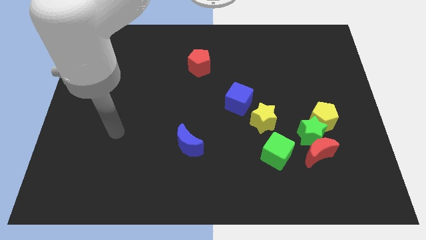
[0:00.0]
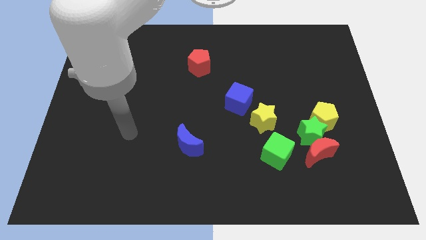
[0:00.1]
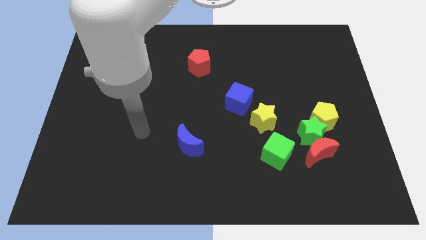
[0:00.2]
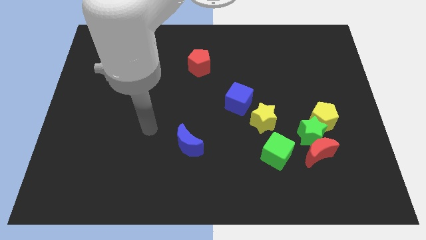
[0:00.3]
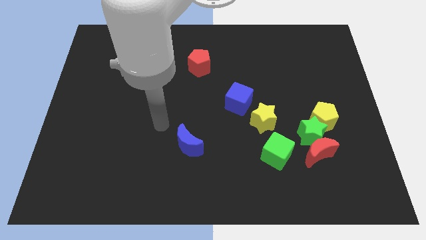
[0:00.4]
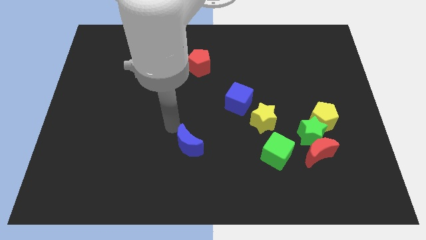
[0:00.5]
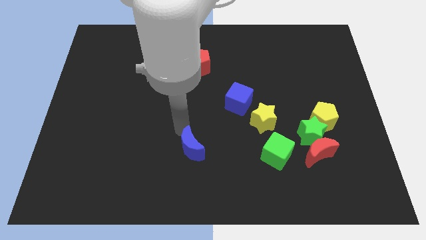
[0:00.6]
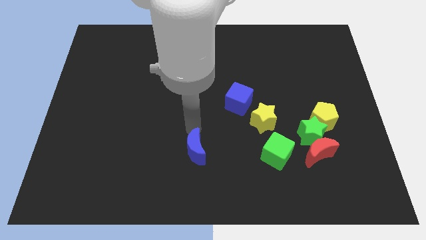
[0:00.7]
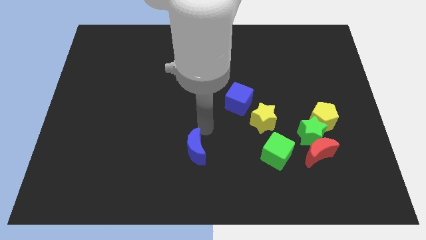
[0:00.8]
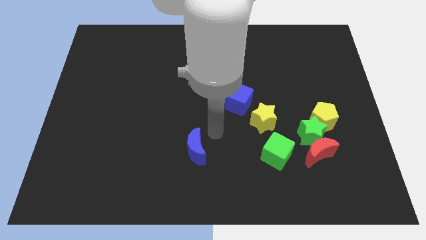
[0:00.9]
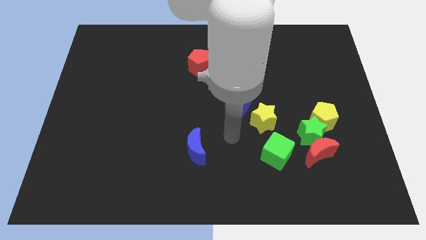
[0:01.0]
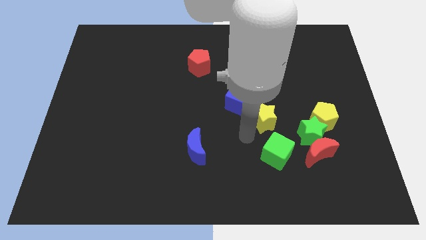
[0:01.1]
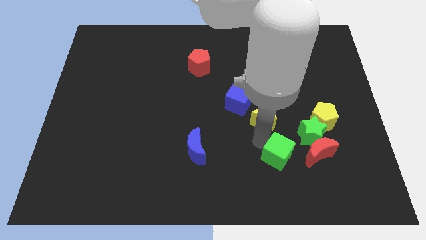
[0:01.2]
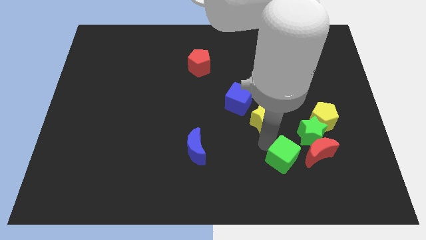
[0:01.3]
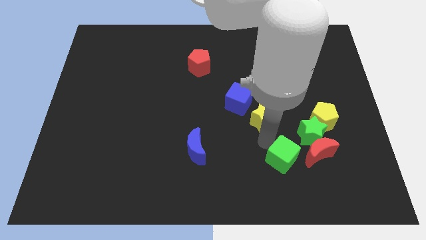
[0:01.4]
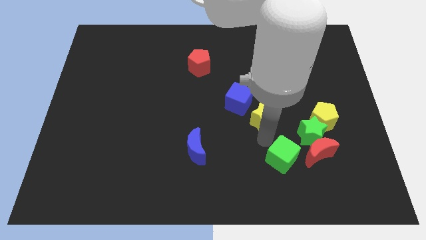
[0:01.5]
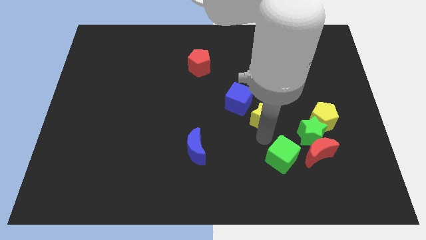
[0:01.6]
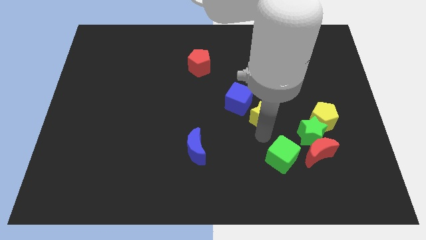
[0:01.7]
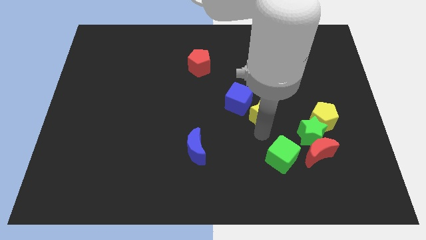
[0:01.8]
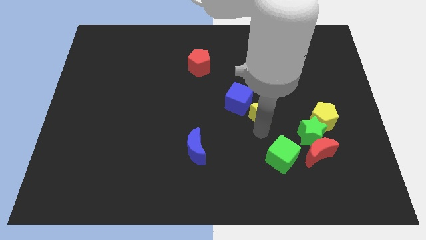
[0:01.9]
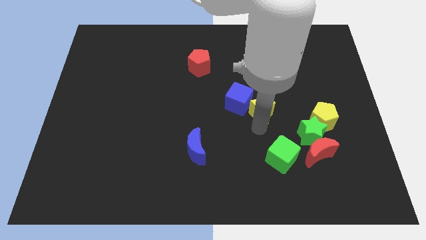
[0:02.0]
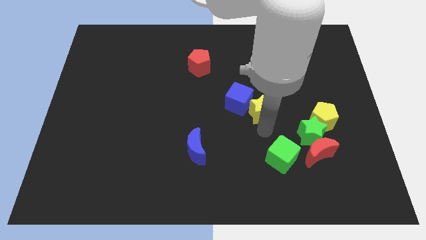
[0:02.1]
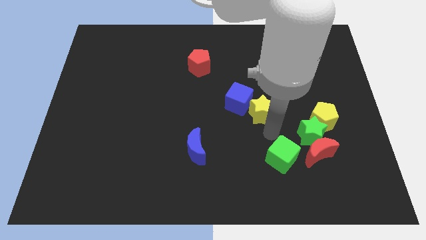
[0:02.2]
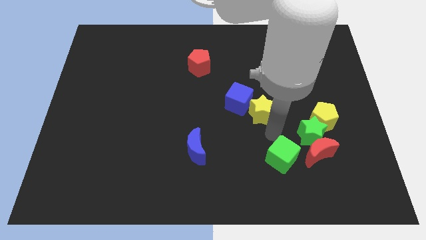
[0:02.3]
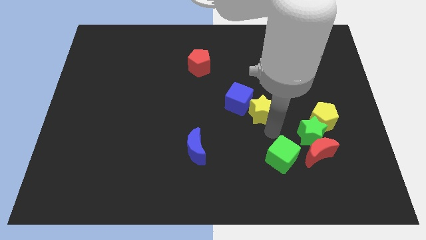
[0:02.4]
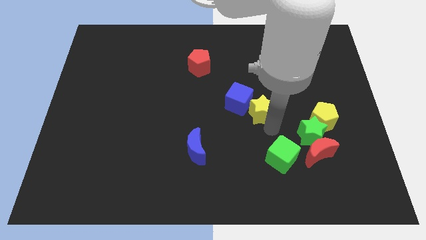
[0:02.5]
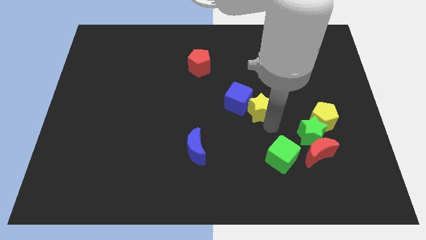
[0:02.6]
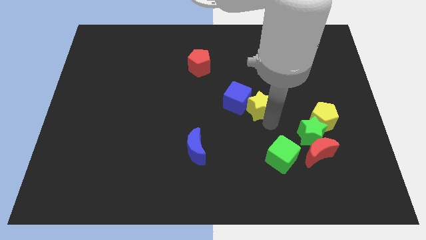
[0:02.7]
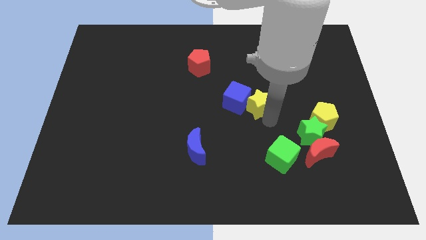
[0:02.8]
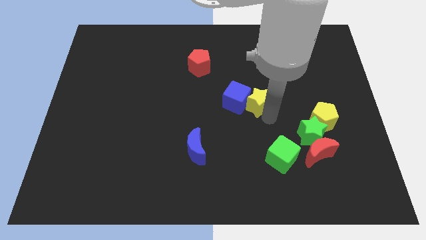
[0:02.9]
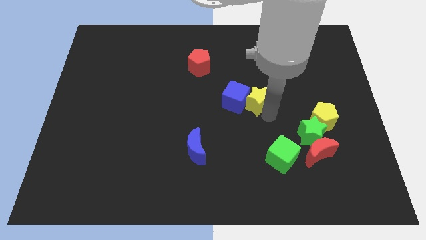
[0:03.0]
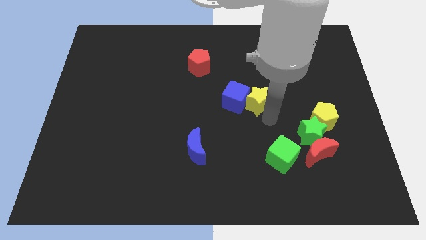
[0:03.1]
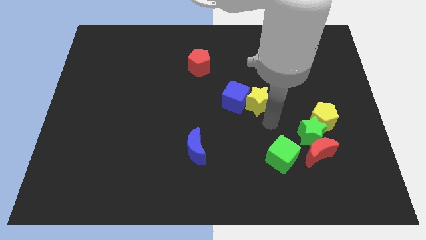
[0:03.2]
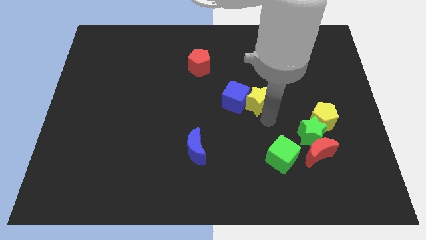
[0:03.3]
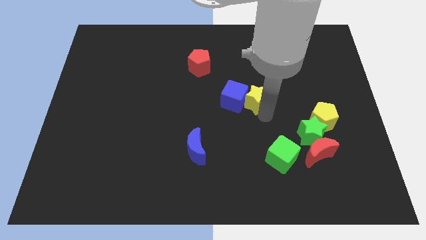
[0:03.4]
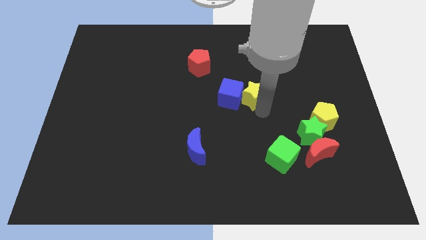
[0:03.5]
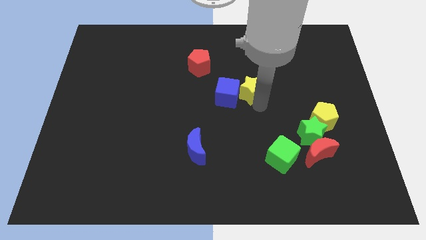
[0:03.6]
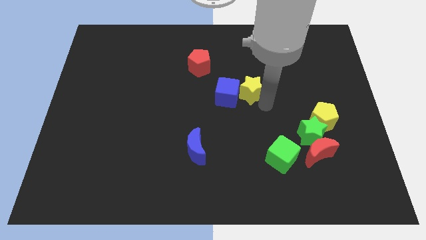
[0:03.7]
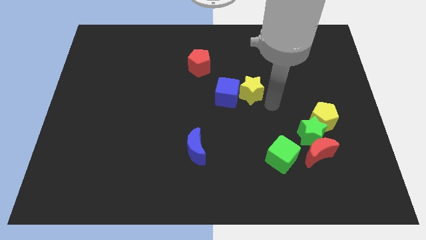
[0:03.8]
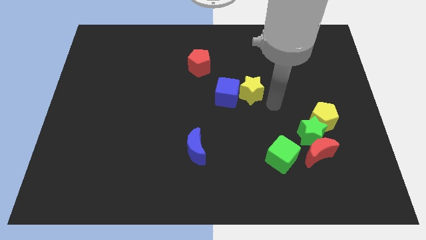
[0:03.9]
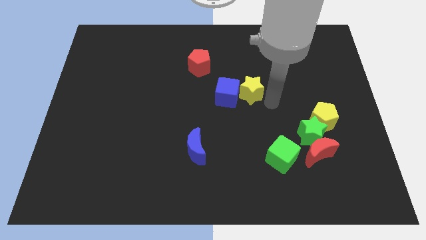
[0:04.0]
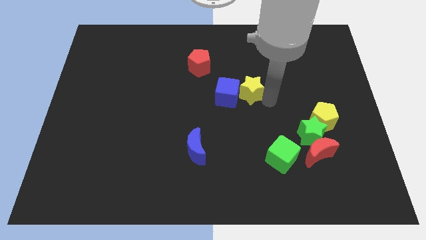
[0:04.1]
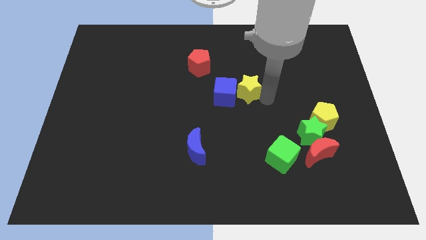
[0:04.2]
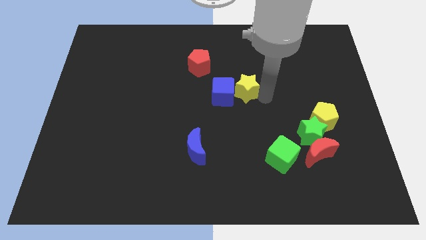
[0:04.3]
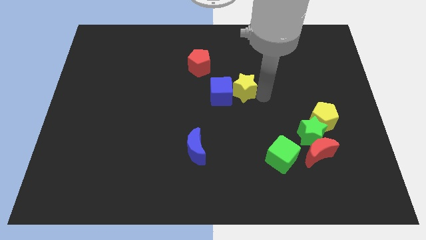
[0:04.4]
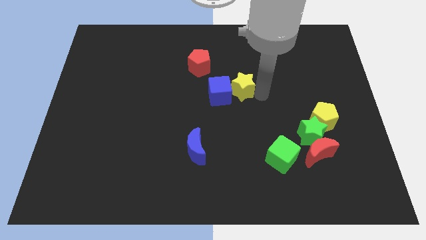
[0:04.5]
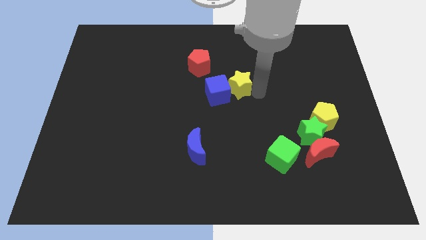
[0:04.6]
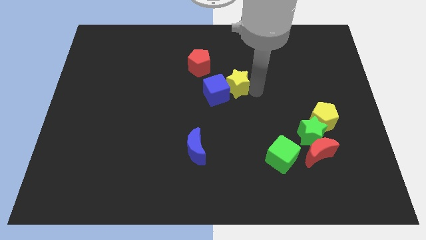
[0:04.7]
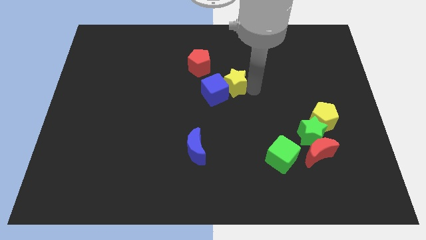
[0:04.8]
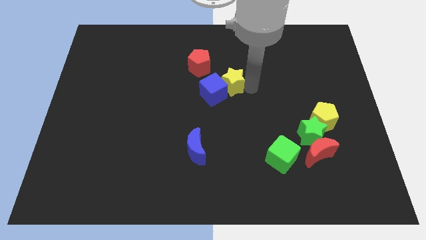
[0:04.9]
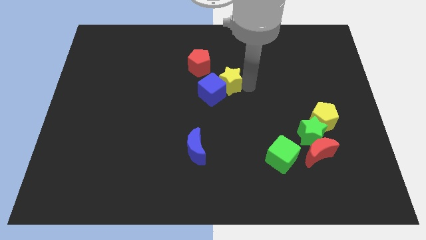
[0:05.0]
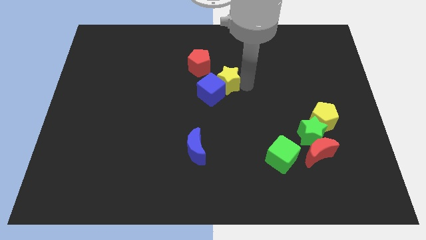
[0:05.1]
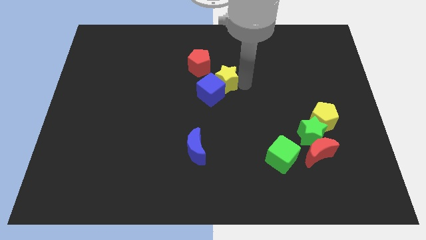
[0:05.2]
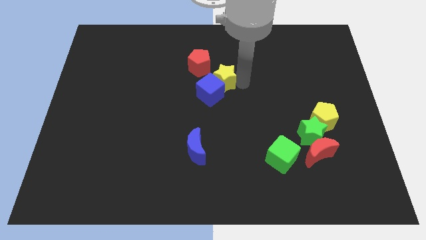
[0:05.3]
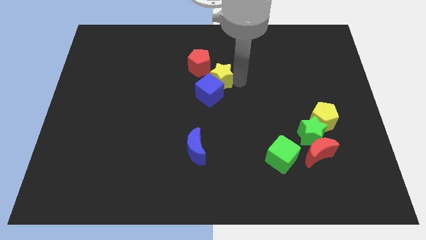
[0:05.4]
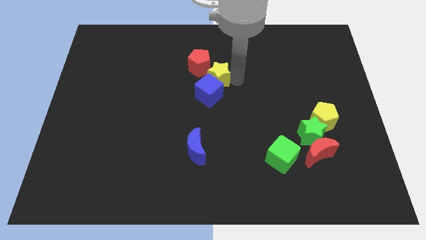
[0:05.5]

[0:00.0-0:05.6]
slide the yellow star towards the red pentagon
